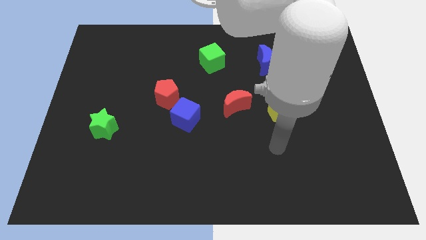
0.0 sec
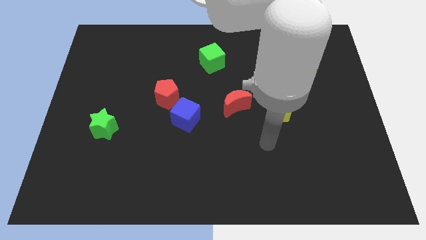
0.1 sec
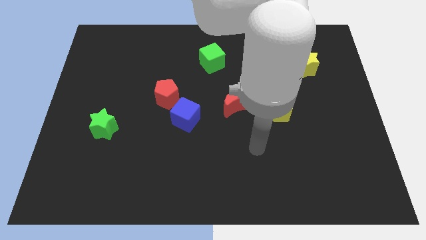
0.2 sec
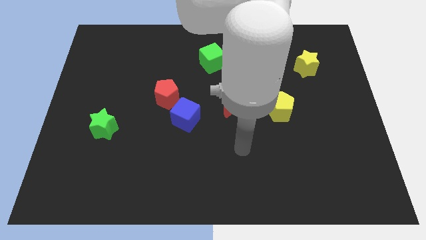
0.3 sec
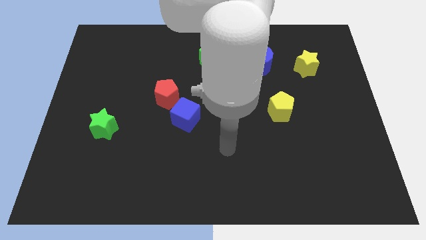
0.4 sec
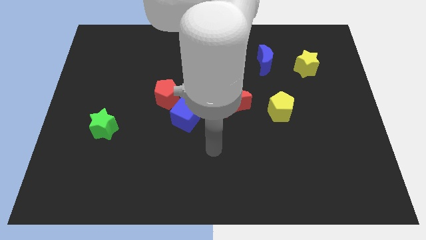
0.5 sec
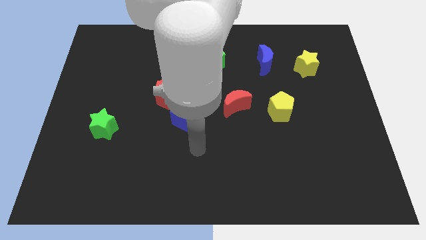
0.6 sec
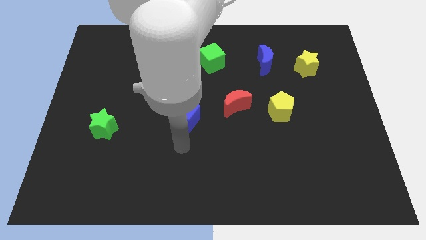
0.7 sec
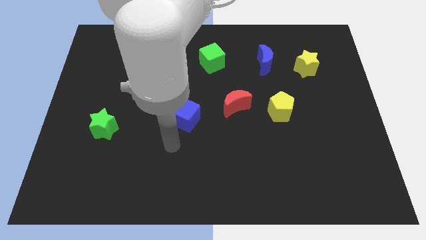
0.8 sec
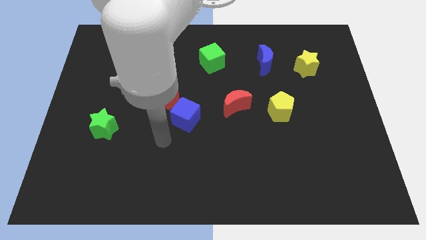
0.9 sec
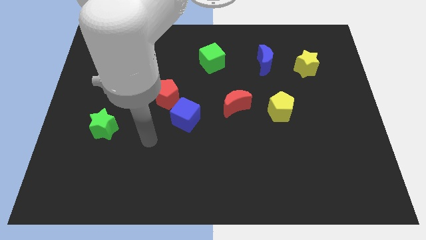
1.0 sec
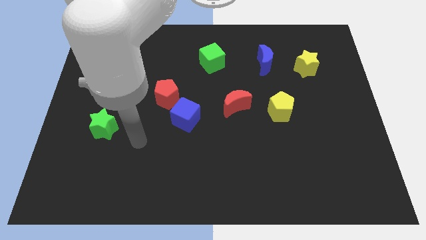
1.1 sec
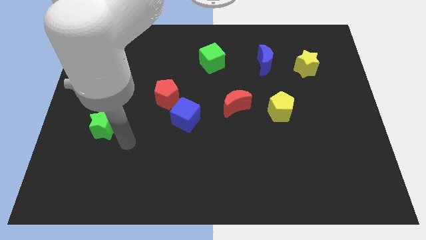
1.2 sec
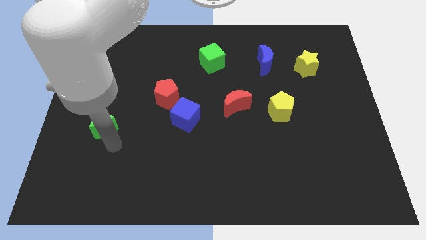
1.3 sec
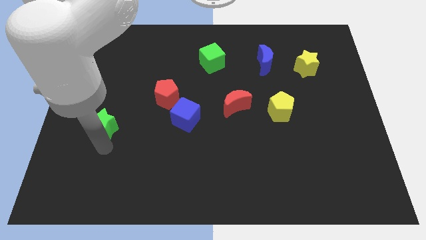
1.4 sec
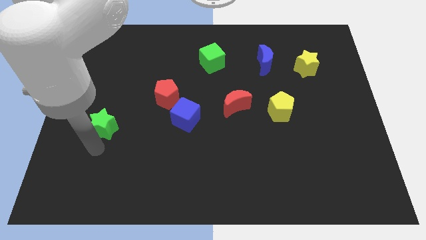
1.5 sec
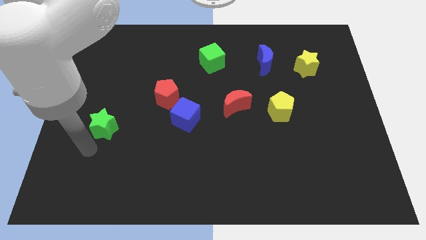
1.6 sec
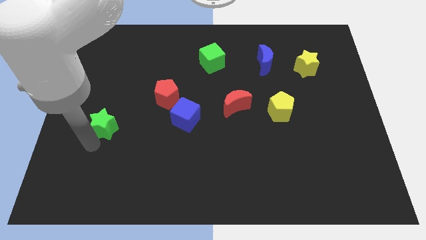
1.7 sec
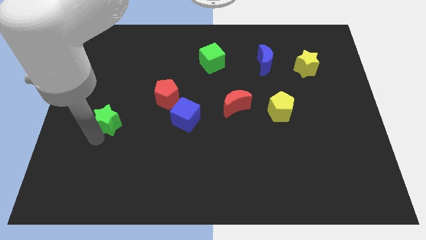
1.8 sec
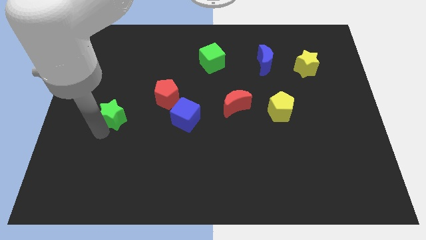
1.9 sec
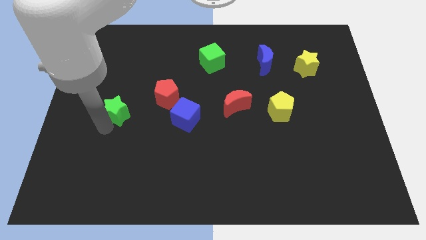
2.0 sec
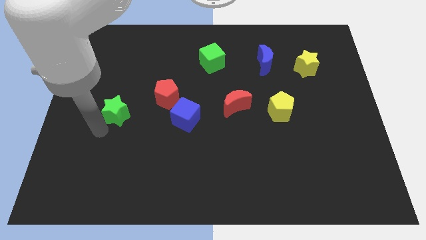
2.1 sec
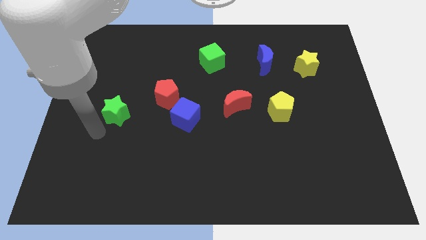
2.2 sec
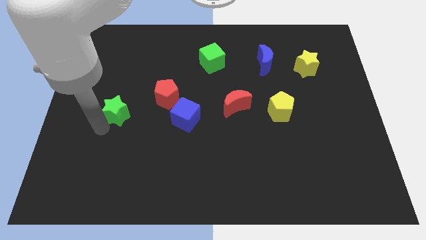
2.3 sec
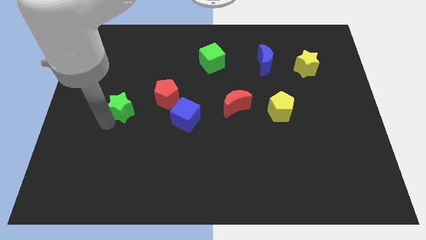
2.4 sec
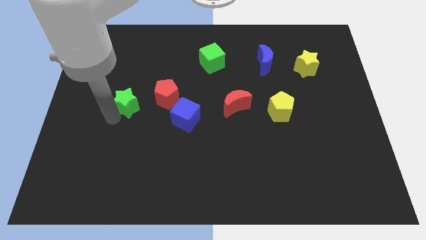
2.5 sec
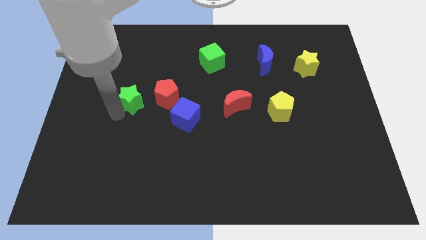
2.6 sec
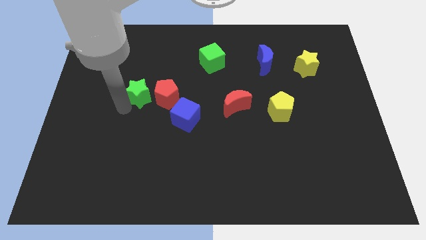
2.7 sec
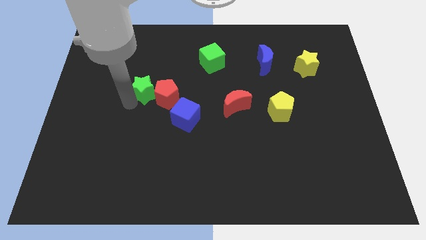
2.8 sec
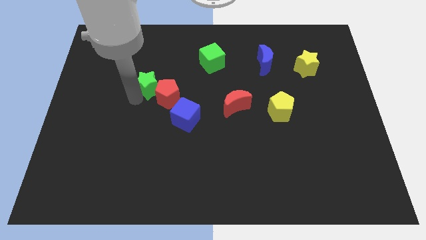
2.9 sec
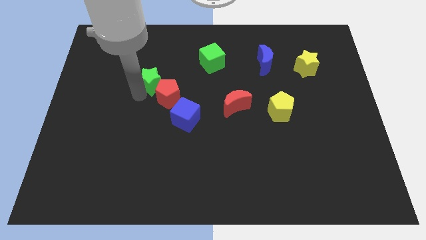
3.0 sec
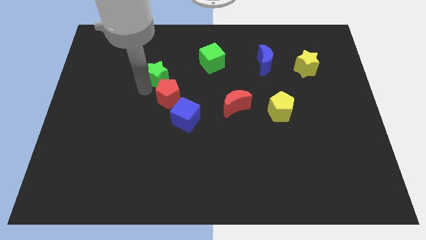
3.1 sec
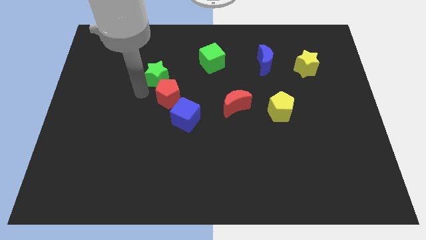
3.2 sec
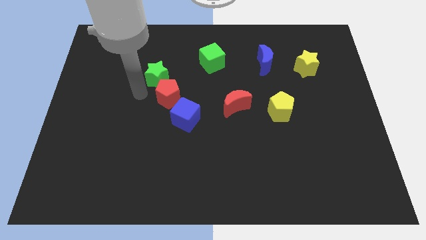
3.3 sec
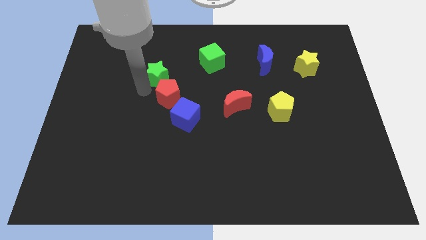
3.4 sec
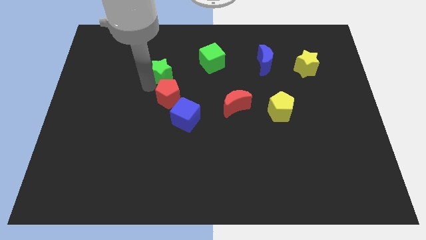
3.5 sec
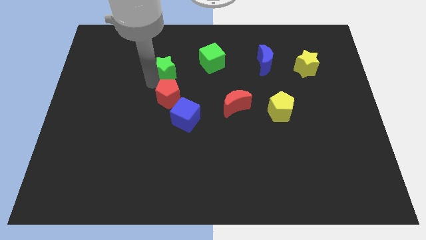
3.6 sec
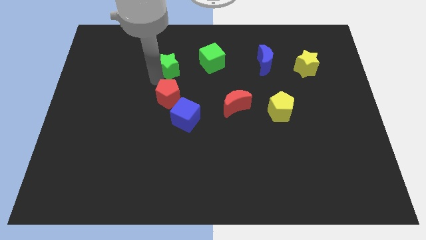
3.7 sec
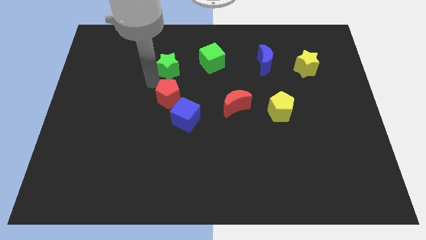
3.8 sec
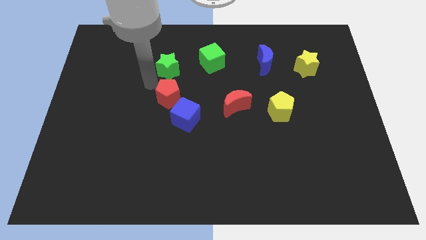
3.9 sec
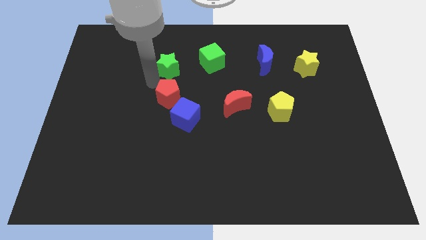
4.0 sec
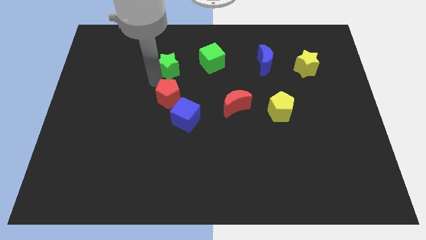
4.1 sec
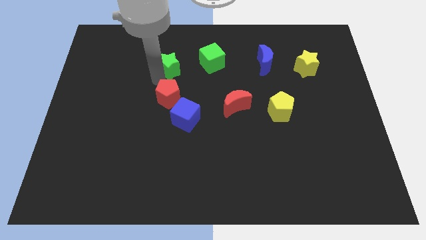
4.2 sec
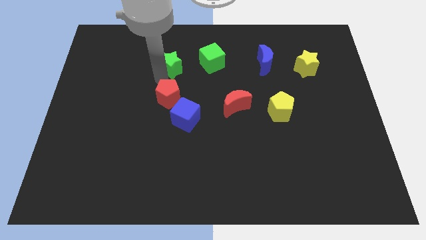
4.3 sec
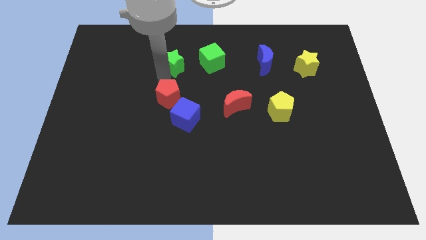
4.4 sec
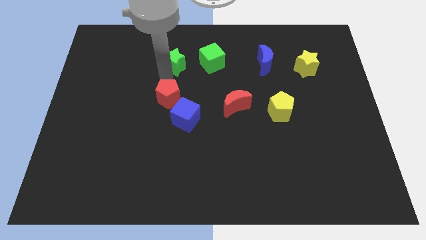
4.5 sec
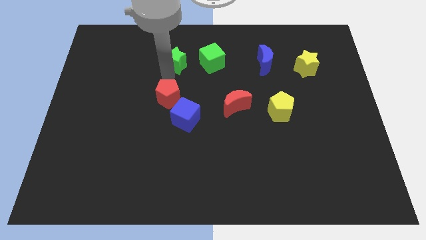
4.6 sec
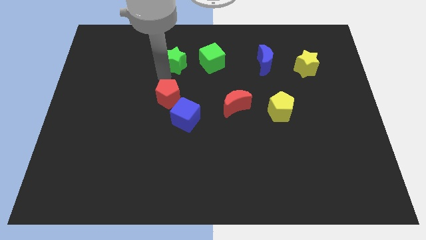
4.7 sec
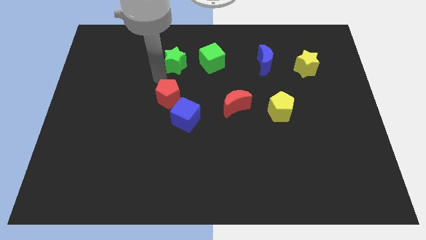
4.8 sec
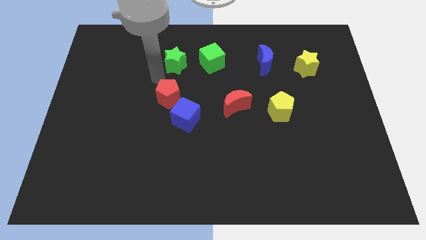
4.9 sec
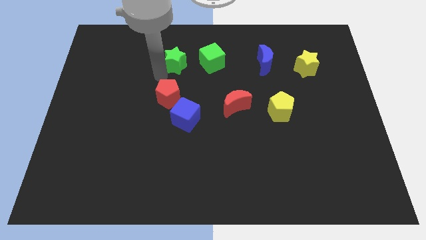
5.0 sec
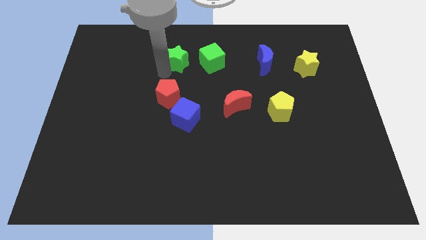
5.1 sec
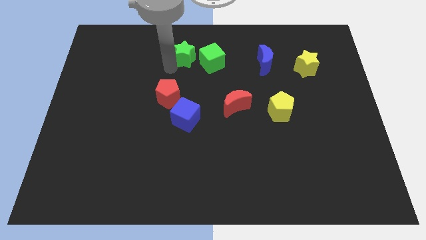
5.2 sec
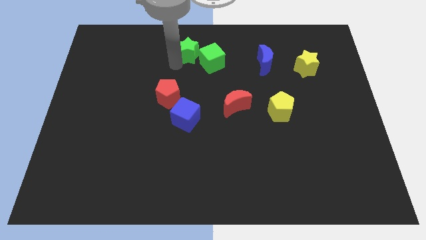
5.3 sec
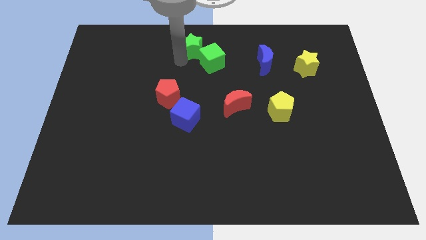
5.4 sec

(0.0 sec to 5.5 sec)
put the green star to the top side

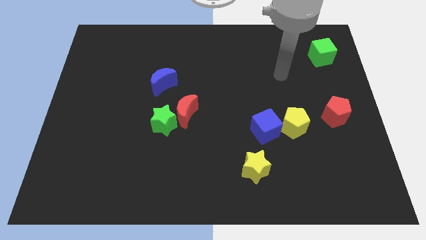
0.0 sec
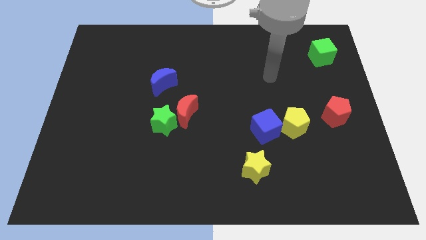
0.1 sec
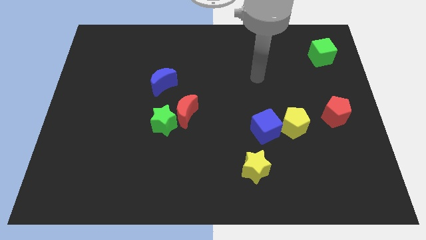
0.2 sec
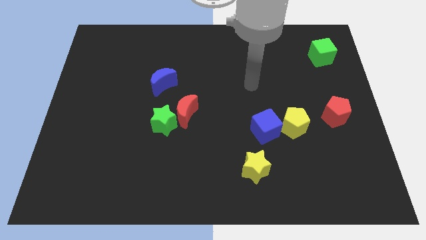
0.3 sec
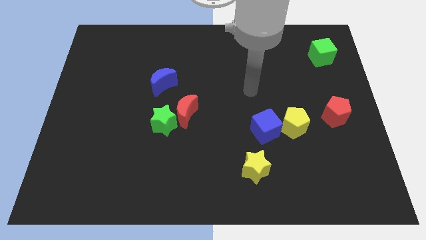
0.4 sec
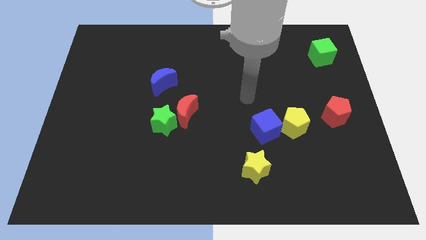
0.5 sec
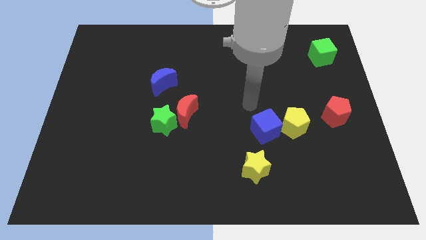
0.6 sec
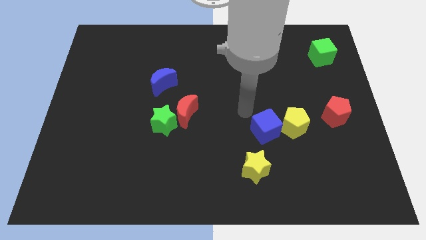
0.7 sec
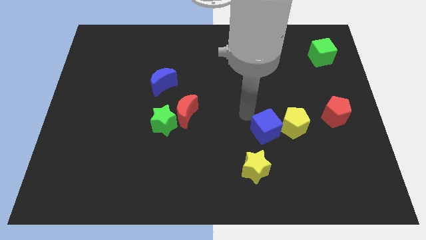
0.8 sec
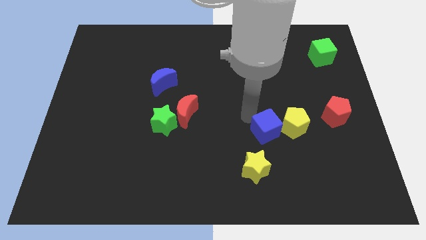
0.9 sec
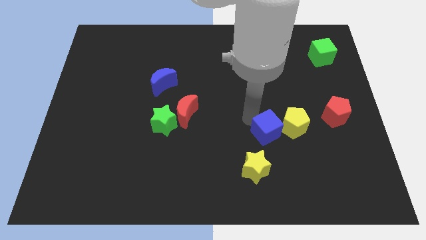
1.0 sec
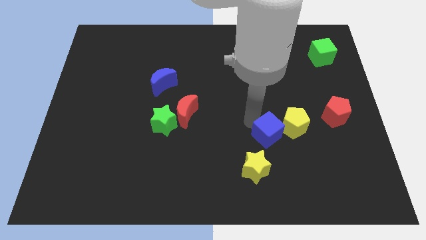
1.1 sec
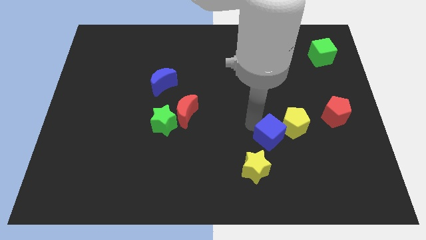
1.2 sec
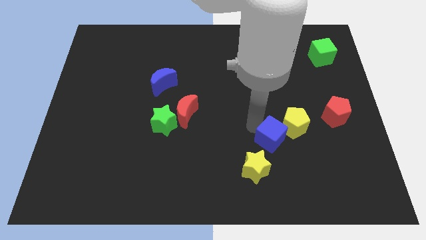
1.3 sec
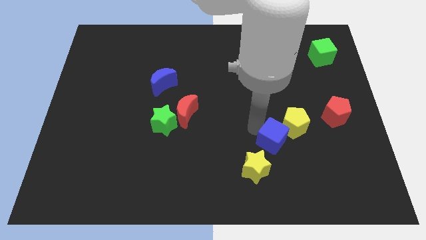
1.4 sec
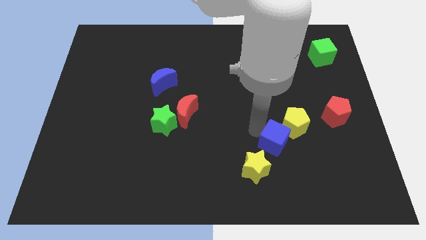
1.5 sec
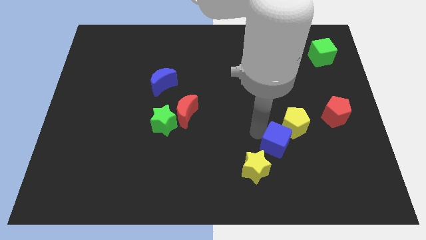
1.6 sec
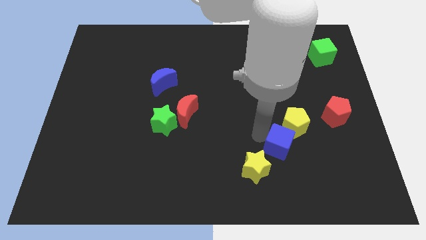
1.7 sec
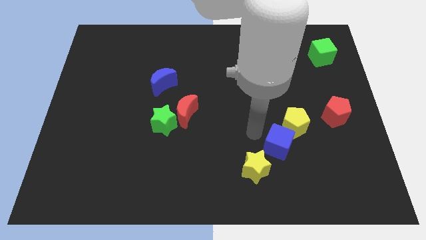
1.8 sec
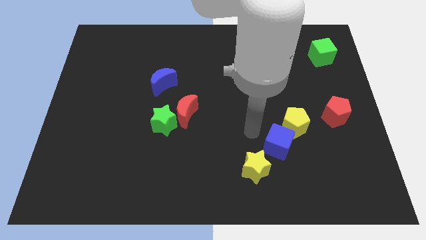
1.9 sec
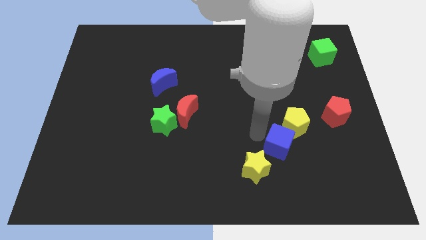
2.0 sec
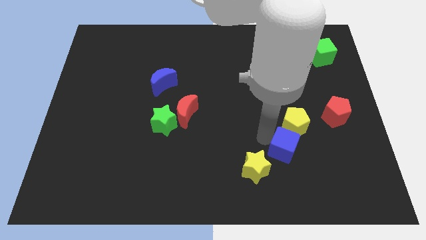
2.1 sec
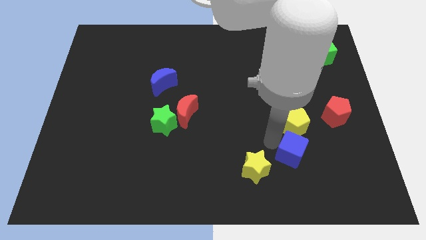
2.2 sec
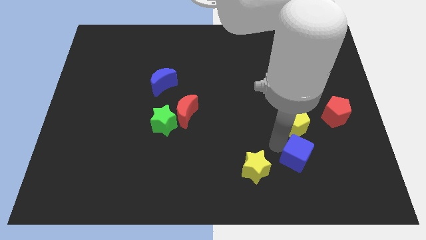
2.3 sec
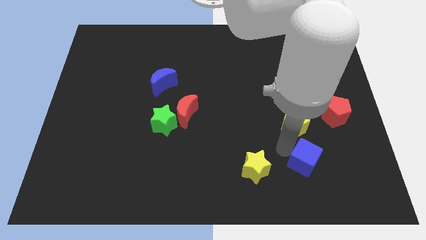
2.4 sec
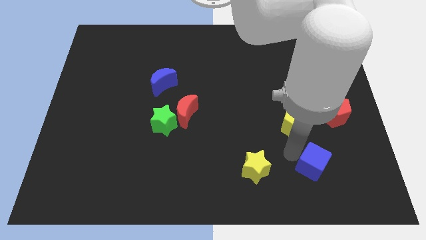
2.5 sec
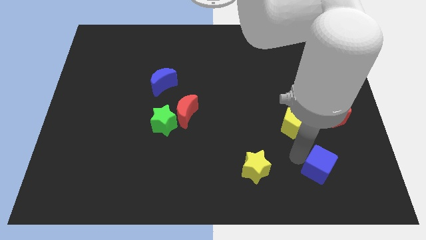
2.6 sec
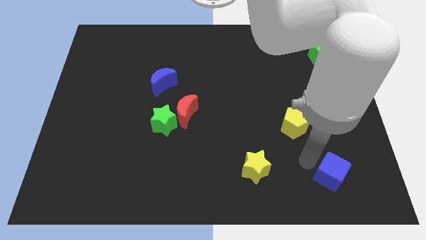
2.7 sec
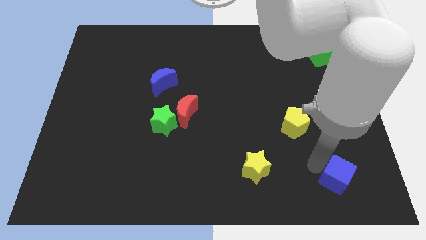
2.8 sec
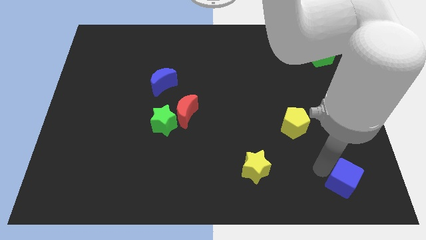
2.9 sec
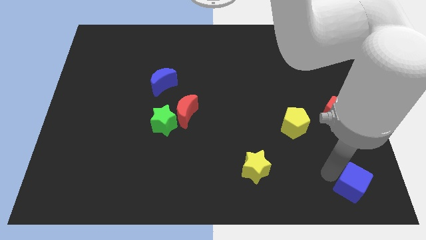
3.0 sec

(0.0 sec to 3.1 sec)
push the blue cube to the bottom right of the board
